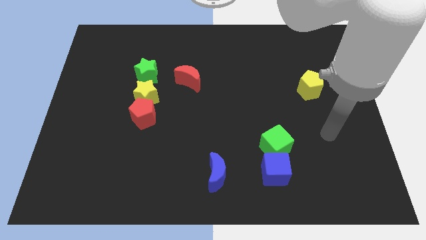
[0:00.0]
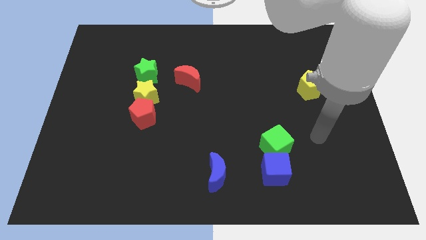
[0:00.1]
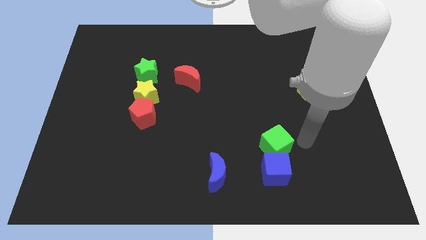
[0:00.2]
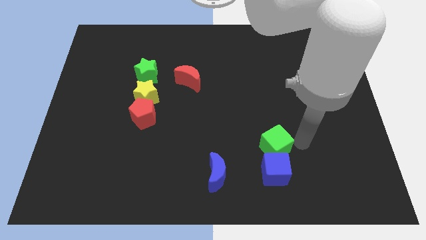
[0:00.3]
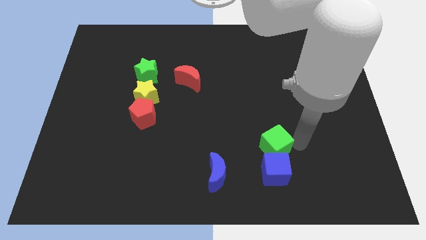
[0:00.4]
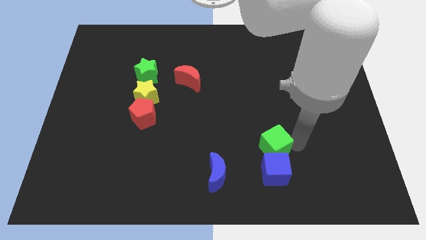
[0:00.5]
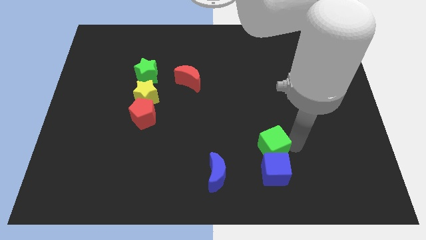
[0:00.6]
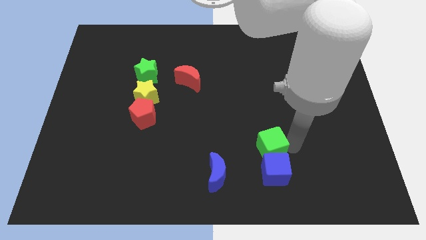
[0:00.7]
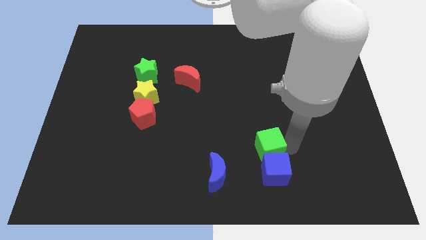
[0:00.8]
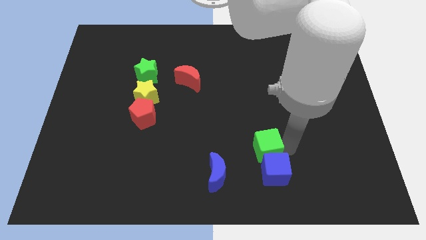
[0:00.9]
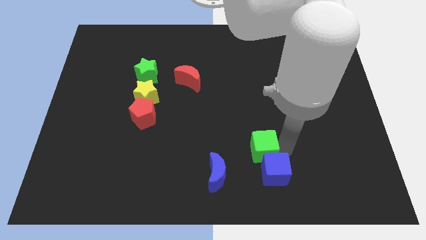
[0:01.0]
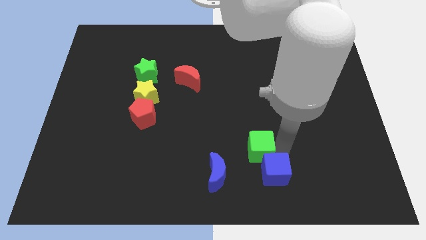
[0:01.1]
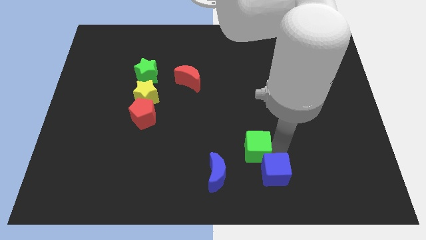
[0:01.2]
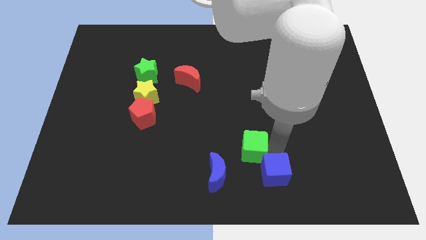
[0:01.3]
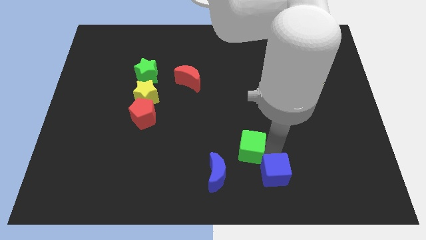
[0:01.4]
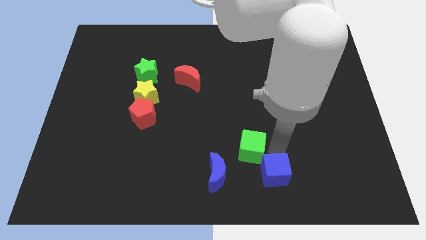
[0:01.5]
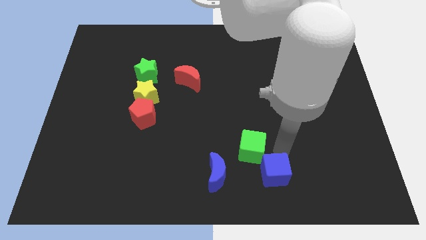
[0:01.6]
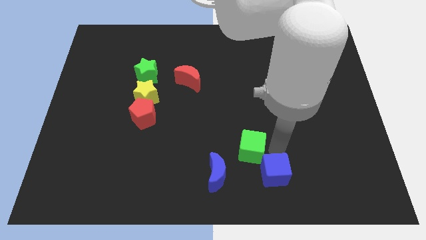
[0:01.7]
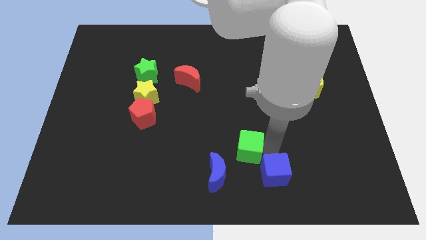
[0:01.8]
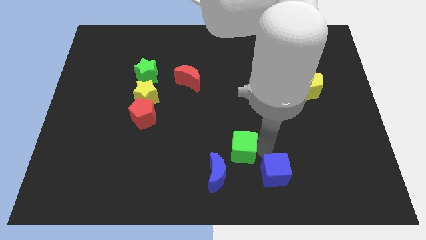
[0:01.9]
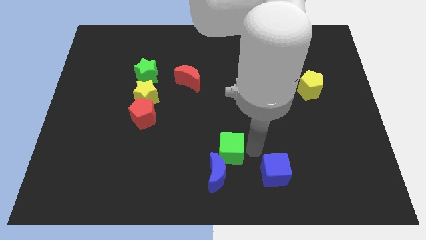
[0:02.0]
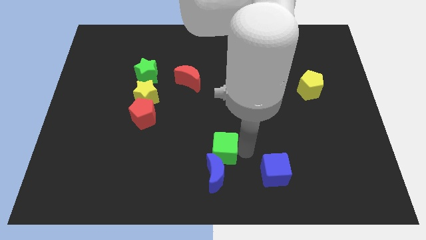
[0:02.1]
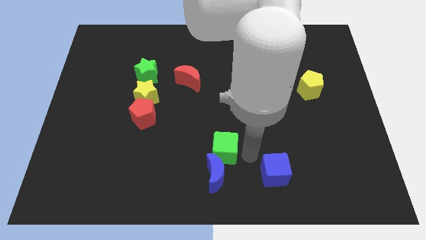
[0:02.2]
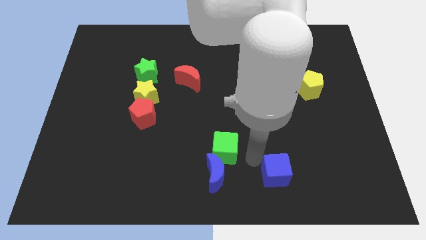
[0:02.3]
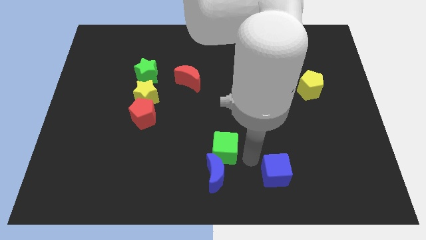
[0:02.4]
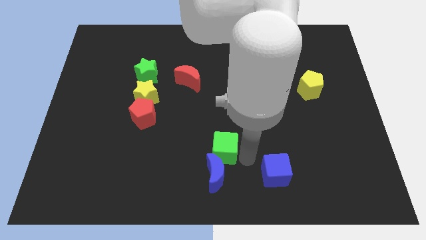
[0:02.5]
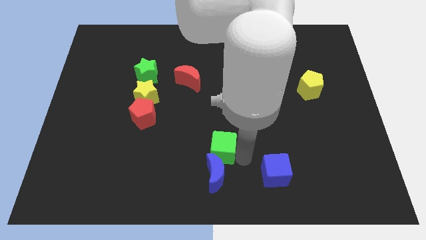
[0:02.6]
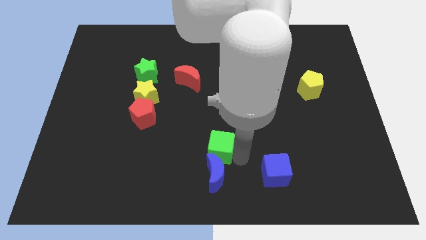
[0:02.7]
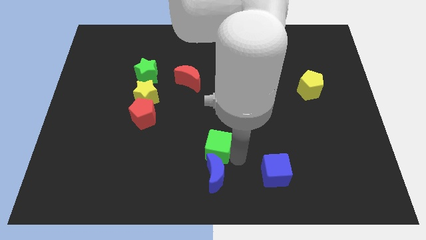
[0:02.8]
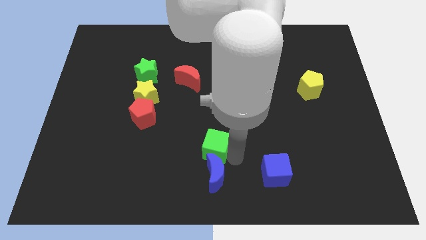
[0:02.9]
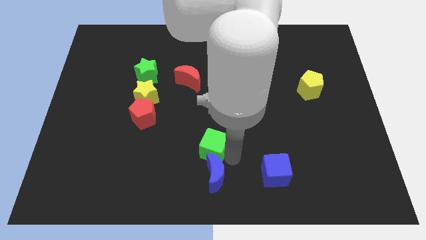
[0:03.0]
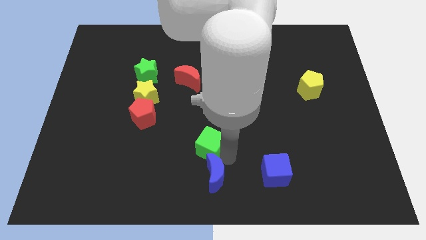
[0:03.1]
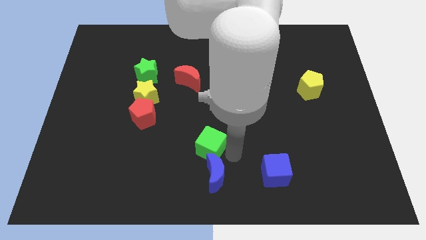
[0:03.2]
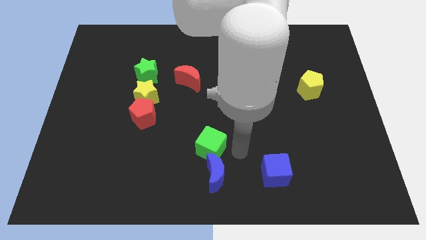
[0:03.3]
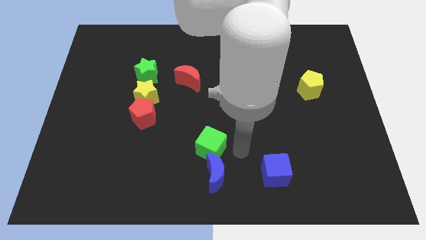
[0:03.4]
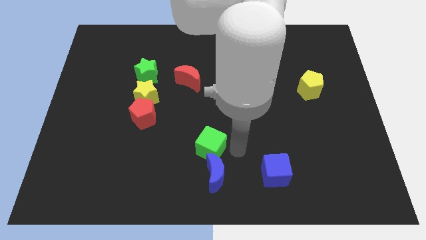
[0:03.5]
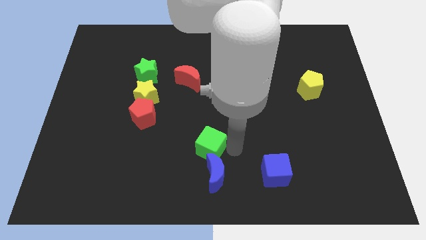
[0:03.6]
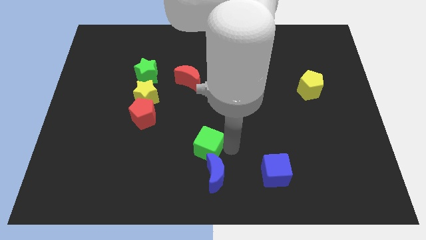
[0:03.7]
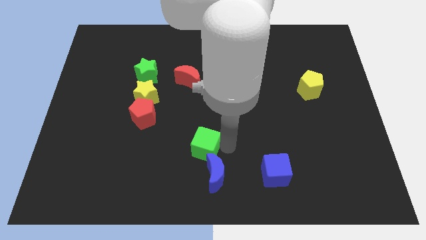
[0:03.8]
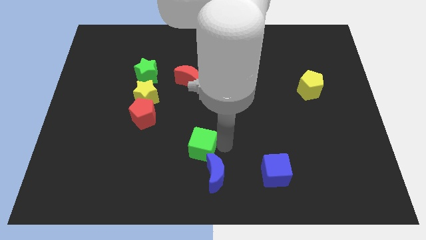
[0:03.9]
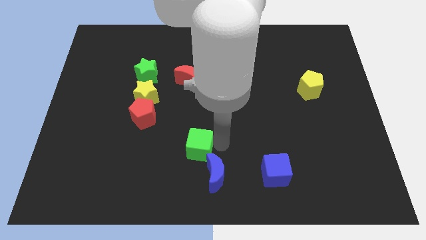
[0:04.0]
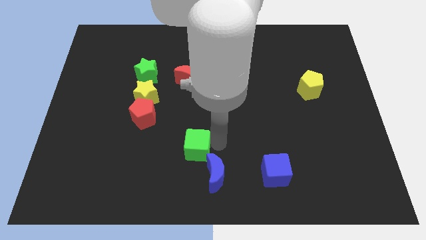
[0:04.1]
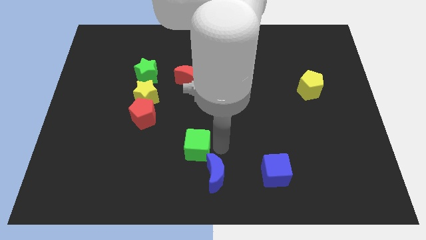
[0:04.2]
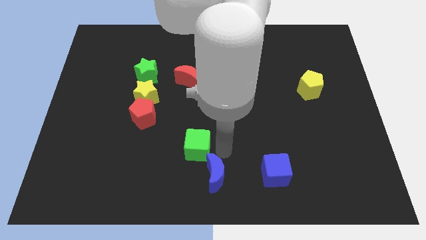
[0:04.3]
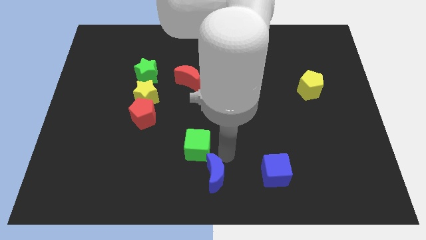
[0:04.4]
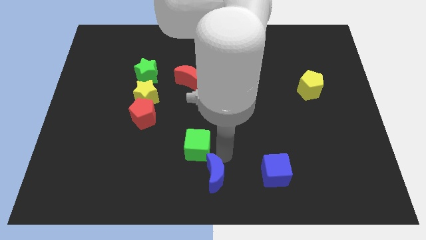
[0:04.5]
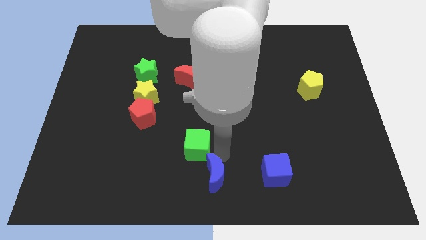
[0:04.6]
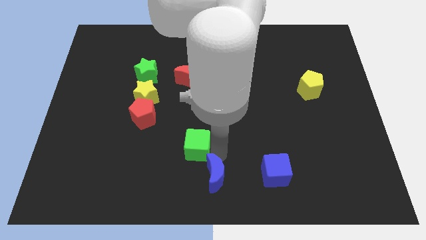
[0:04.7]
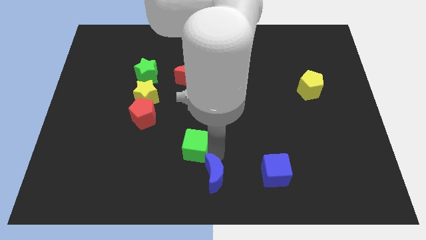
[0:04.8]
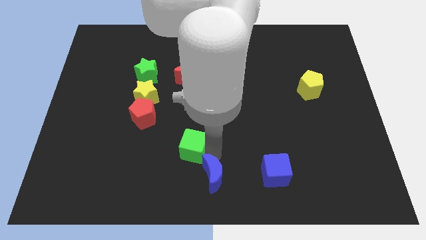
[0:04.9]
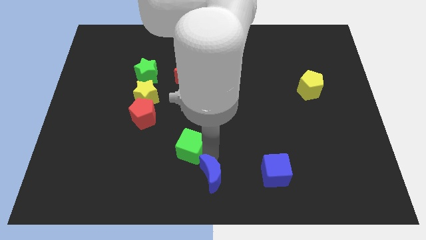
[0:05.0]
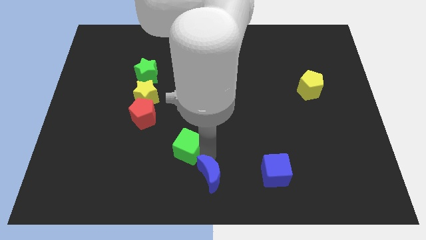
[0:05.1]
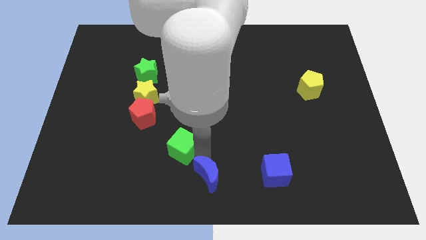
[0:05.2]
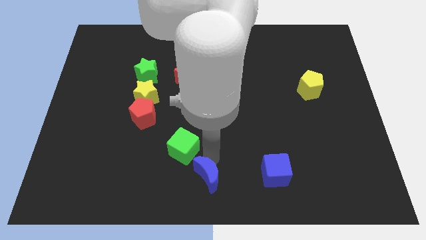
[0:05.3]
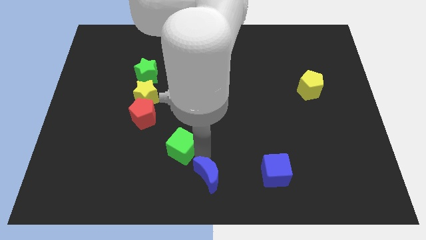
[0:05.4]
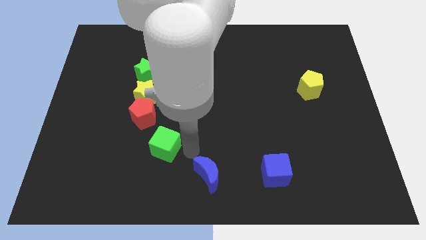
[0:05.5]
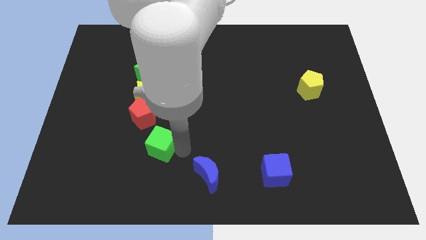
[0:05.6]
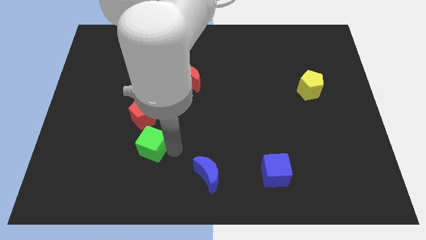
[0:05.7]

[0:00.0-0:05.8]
push the green cube to the bottom side of the yellow star

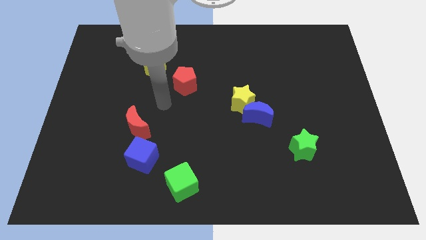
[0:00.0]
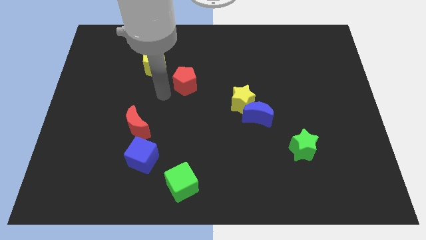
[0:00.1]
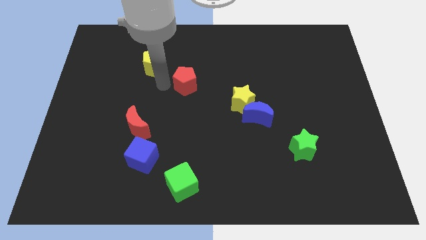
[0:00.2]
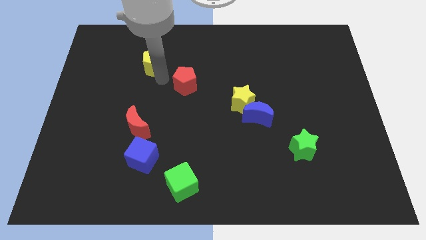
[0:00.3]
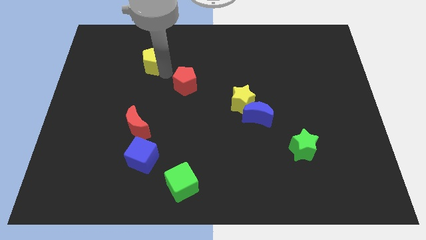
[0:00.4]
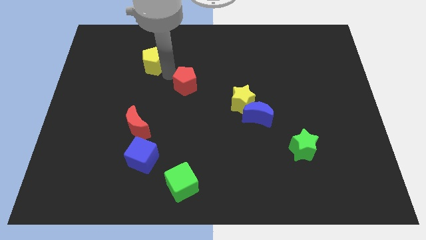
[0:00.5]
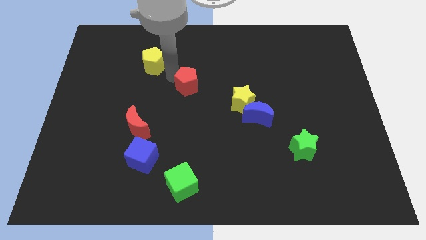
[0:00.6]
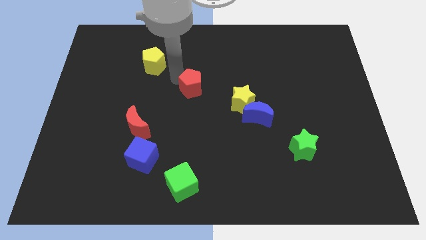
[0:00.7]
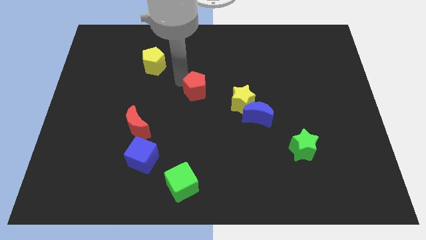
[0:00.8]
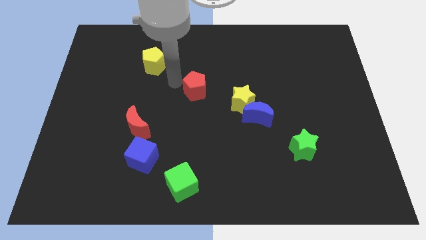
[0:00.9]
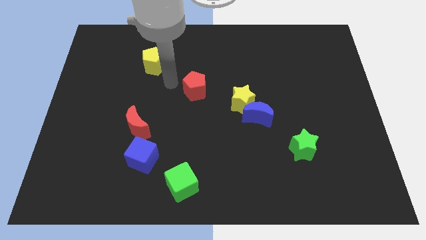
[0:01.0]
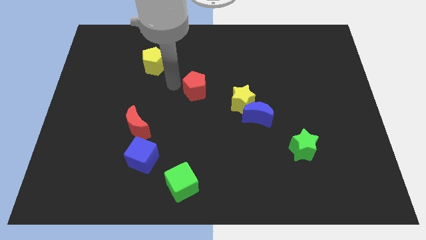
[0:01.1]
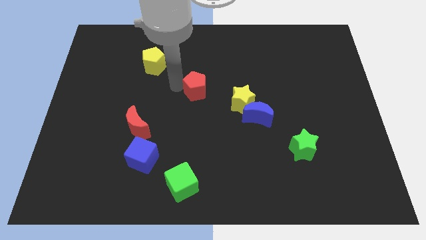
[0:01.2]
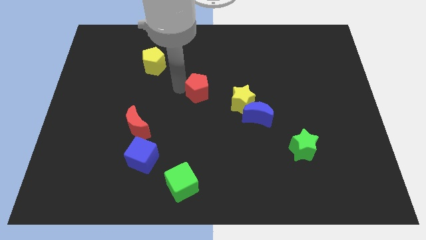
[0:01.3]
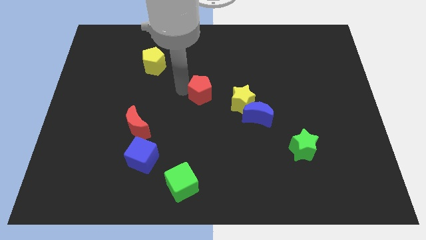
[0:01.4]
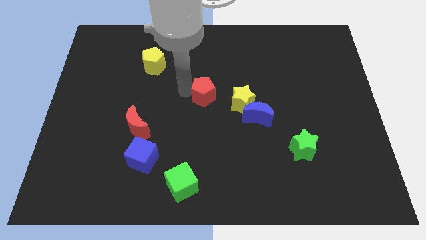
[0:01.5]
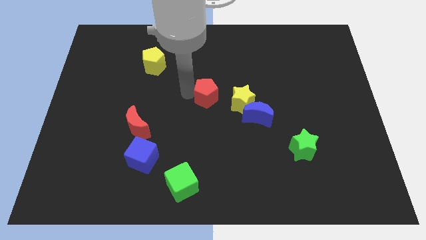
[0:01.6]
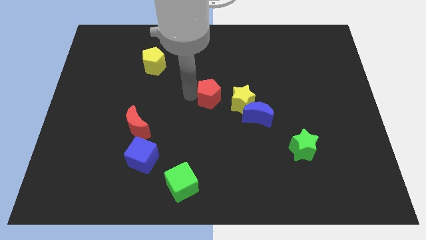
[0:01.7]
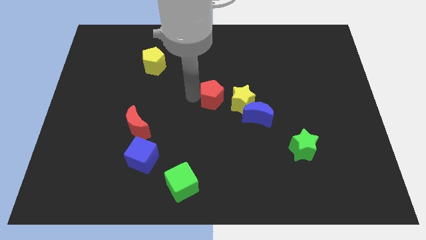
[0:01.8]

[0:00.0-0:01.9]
slide the red pentagon to the top left of the blue moon
